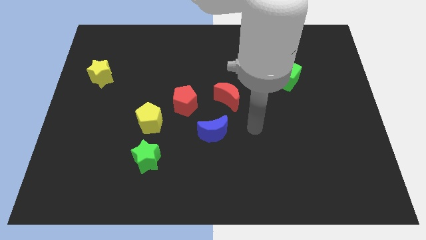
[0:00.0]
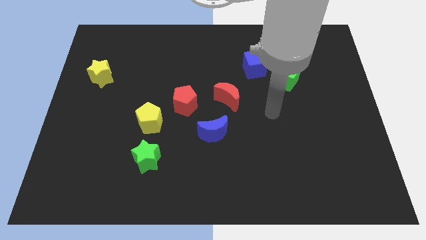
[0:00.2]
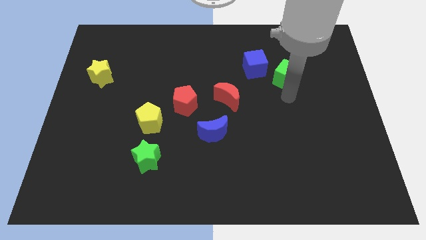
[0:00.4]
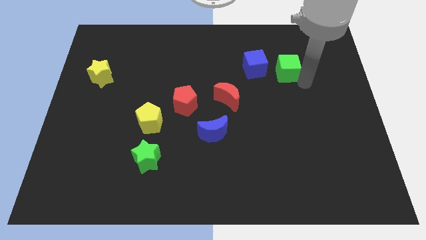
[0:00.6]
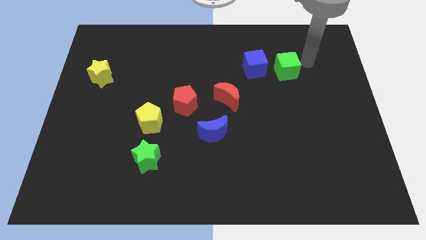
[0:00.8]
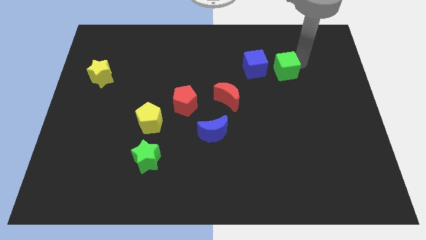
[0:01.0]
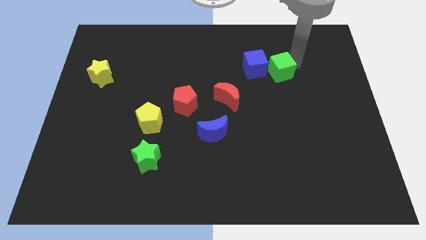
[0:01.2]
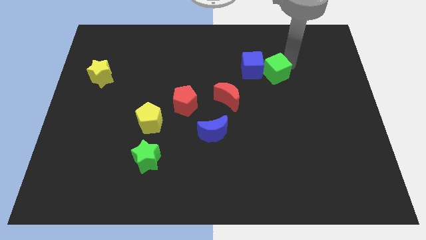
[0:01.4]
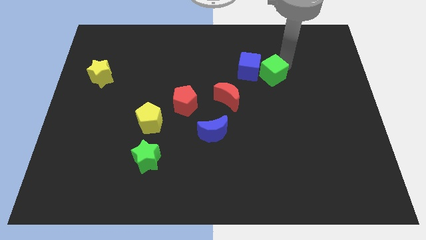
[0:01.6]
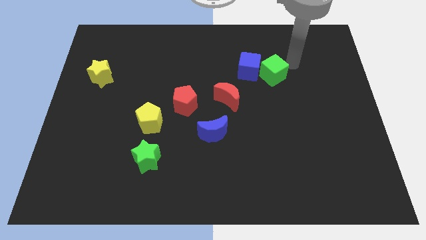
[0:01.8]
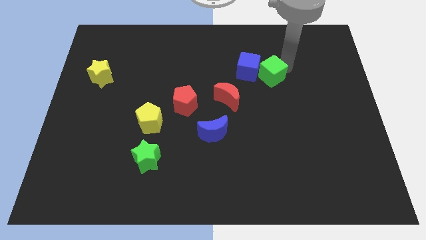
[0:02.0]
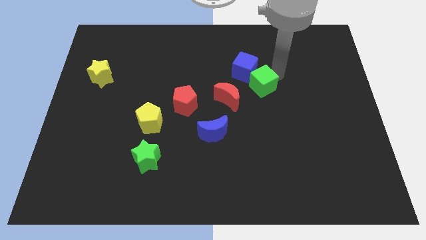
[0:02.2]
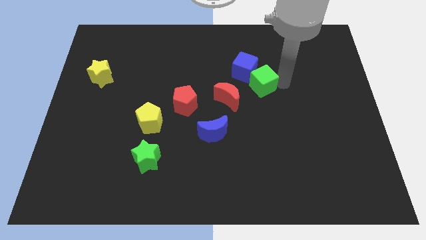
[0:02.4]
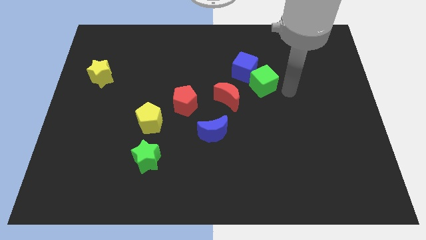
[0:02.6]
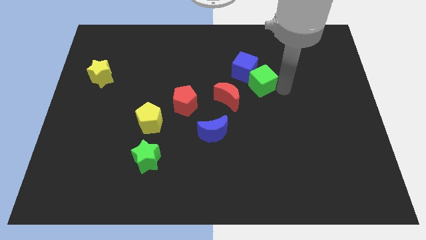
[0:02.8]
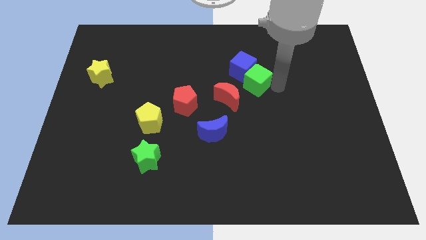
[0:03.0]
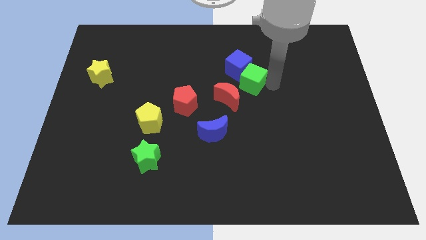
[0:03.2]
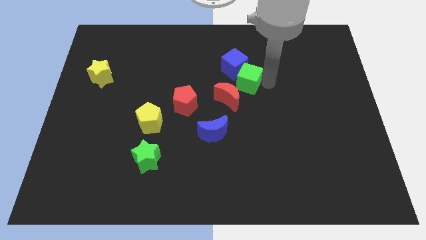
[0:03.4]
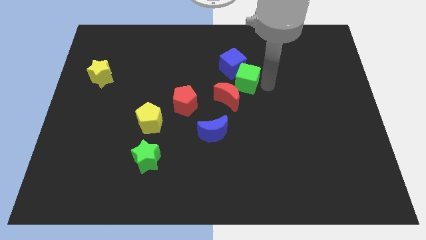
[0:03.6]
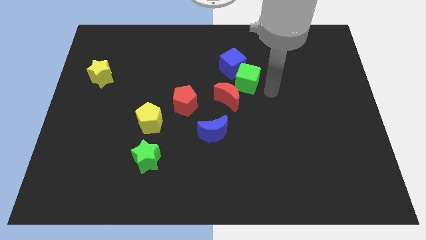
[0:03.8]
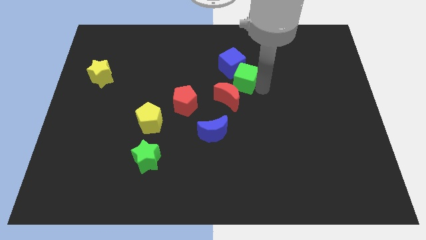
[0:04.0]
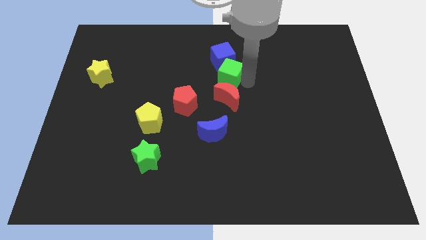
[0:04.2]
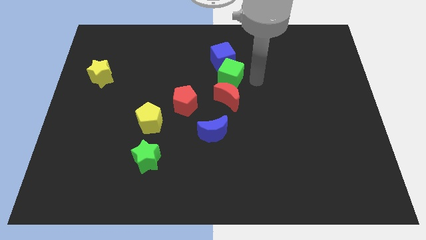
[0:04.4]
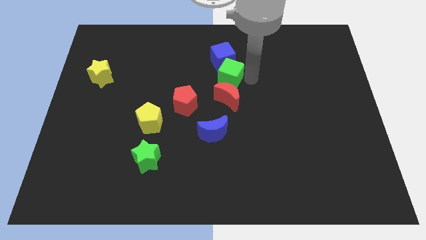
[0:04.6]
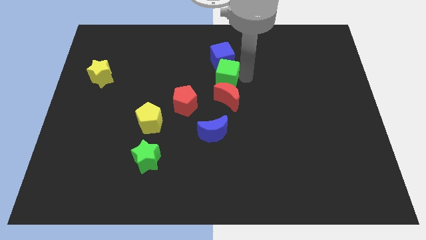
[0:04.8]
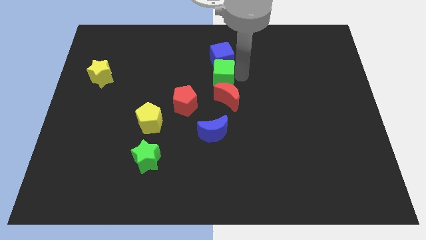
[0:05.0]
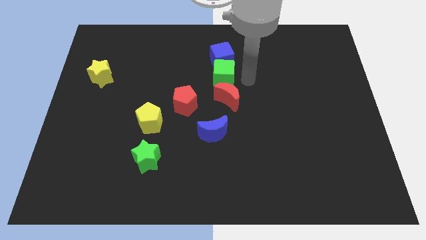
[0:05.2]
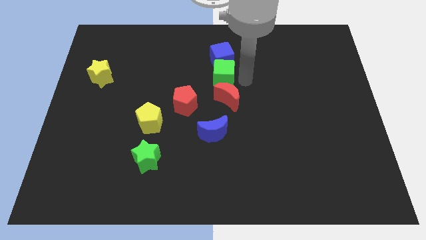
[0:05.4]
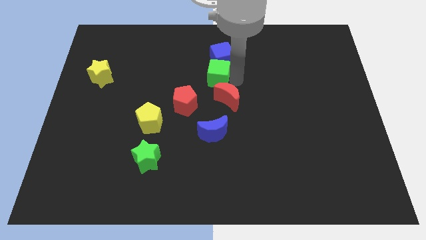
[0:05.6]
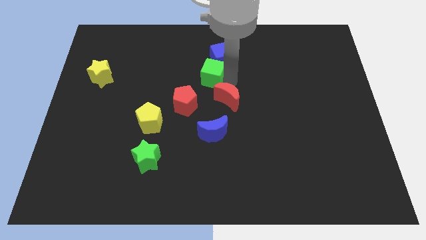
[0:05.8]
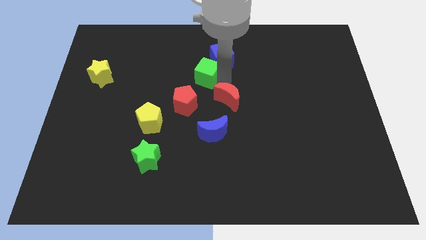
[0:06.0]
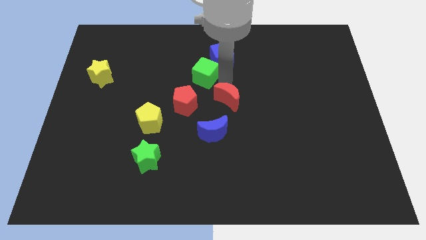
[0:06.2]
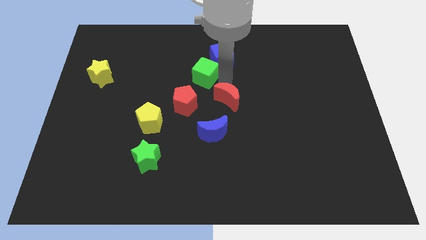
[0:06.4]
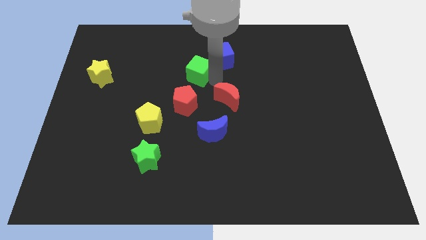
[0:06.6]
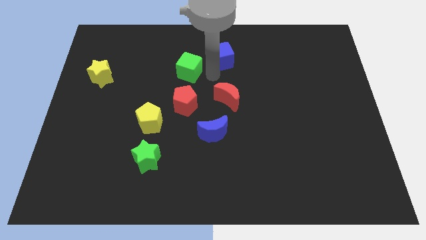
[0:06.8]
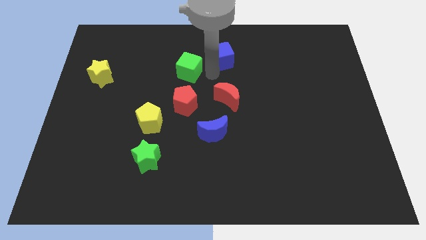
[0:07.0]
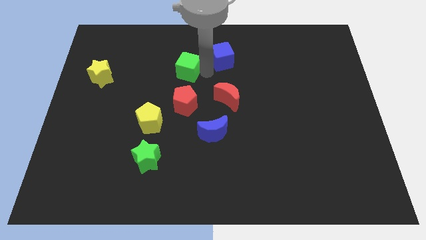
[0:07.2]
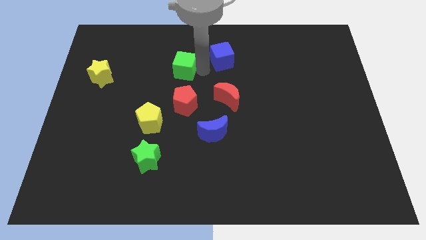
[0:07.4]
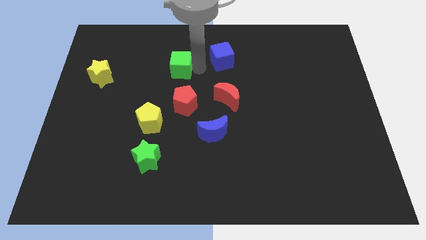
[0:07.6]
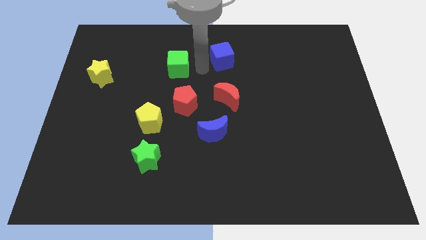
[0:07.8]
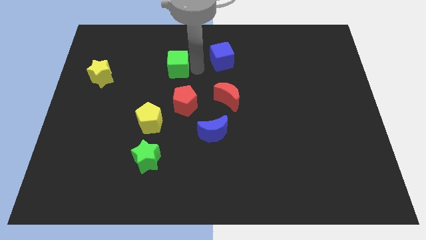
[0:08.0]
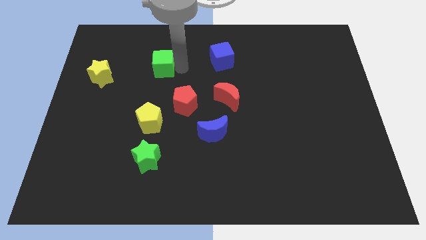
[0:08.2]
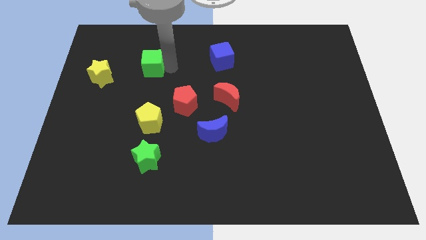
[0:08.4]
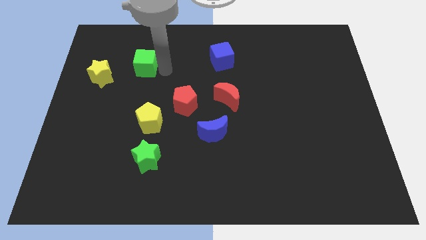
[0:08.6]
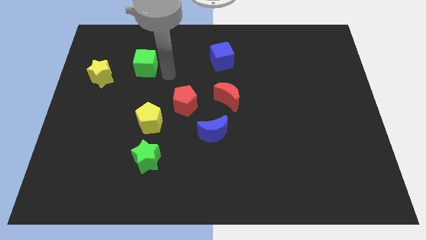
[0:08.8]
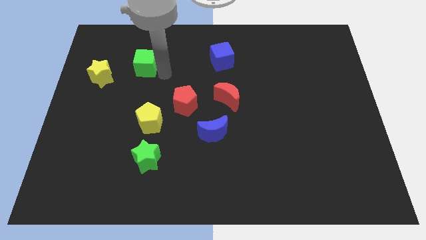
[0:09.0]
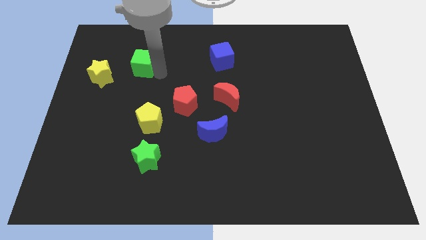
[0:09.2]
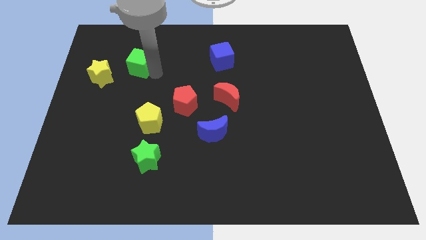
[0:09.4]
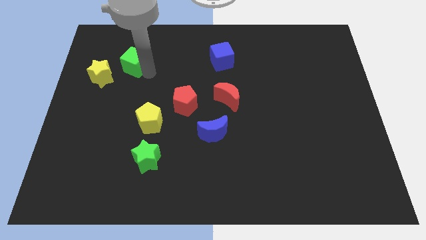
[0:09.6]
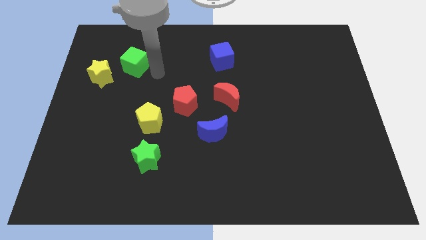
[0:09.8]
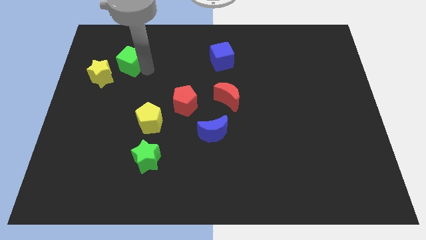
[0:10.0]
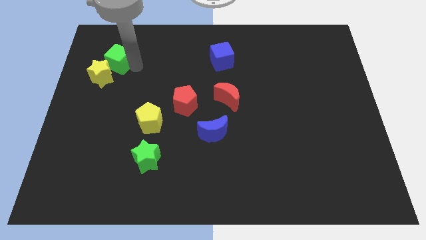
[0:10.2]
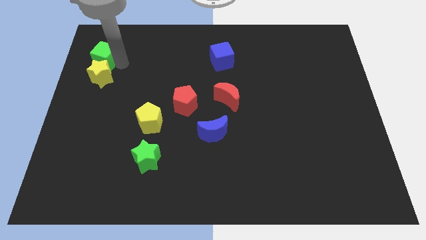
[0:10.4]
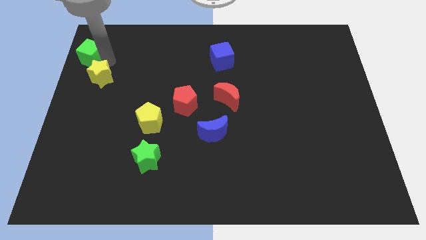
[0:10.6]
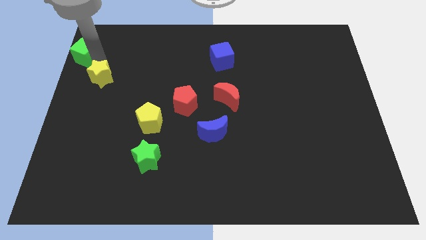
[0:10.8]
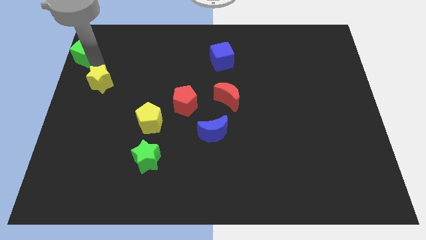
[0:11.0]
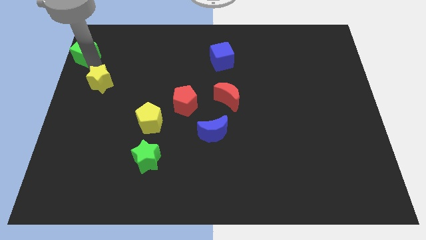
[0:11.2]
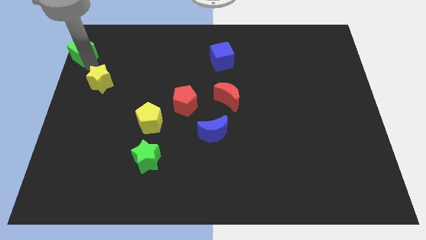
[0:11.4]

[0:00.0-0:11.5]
push the green cube to the upper left corner

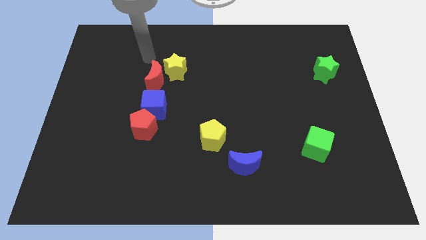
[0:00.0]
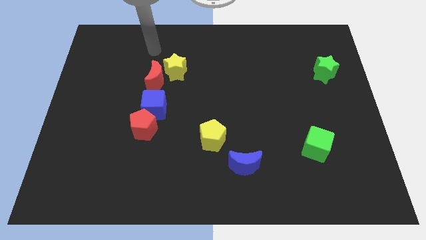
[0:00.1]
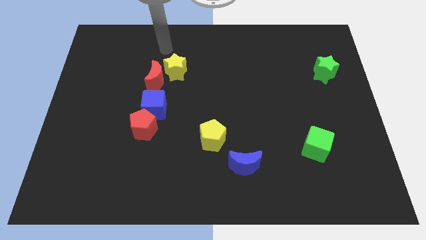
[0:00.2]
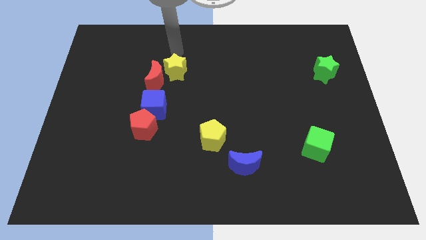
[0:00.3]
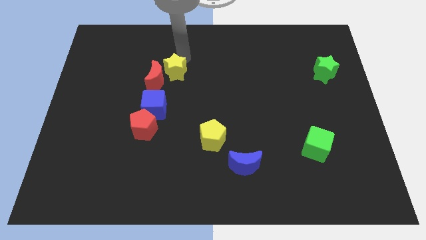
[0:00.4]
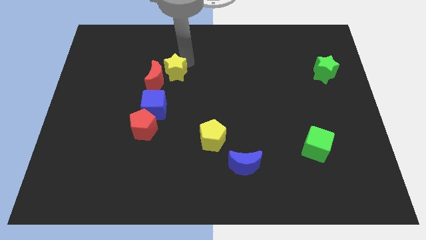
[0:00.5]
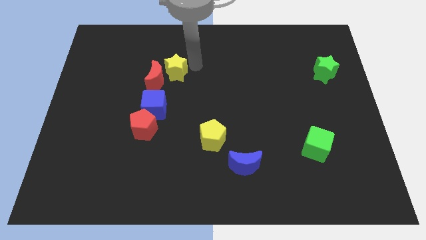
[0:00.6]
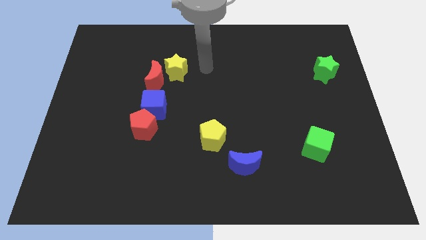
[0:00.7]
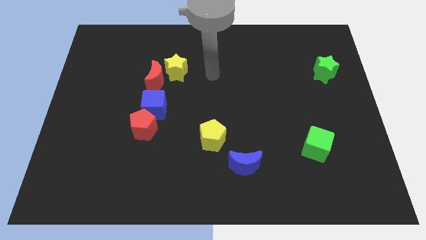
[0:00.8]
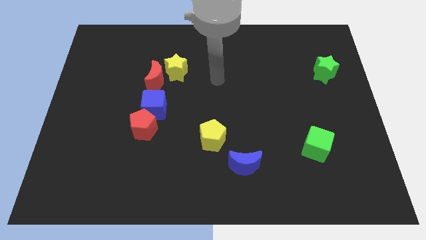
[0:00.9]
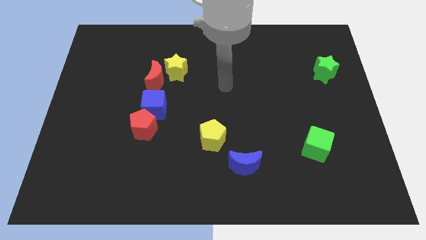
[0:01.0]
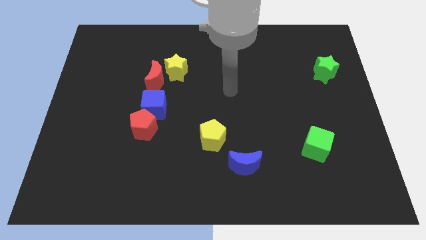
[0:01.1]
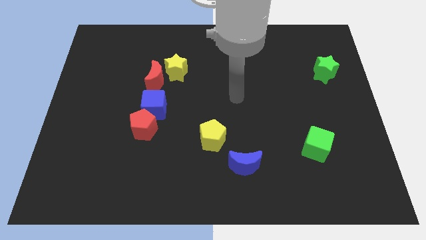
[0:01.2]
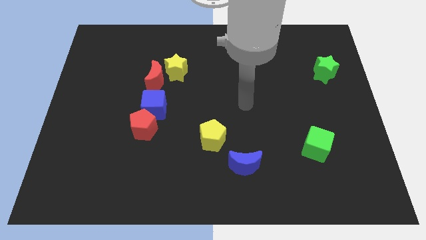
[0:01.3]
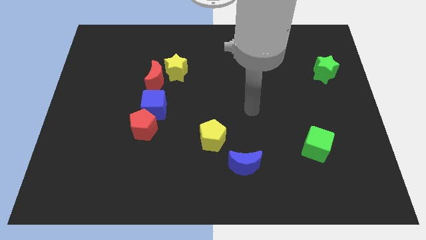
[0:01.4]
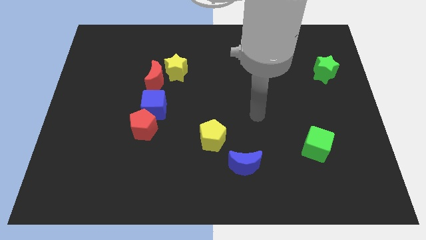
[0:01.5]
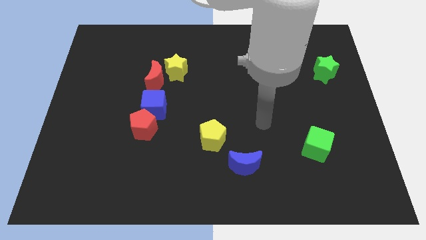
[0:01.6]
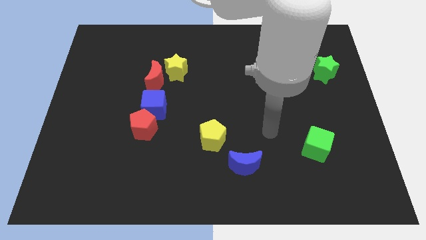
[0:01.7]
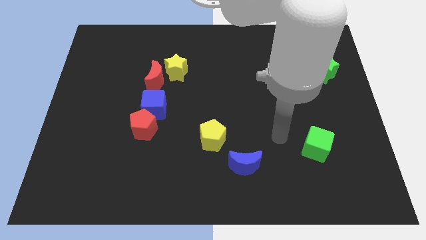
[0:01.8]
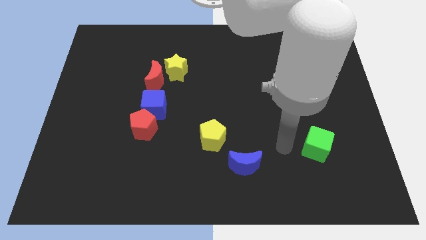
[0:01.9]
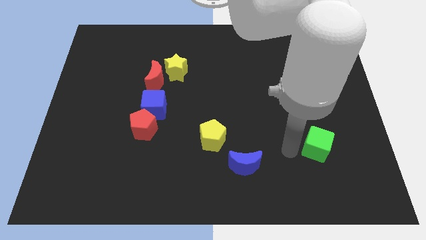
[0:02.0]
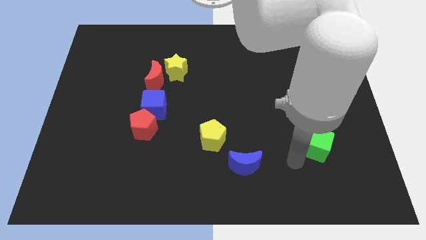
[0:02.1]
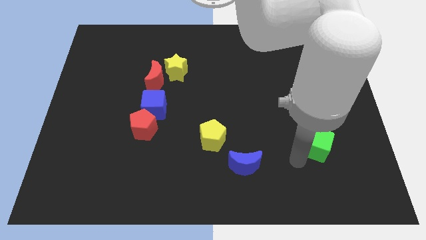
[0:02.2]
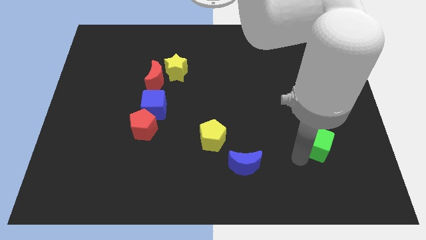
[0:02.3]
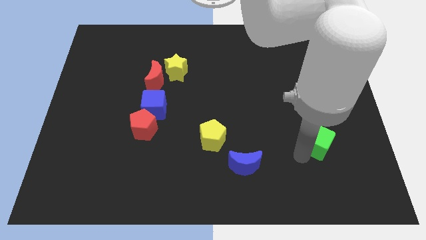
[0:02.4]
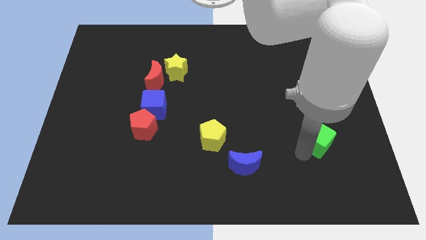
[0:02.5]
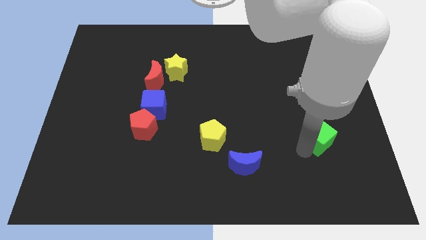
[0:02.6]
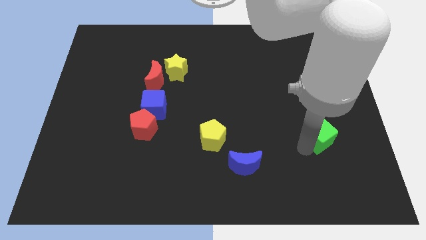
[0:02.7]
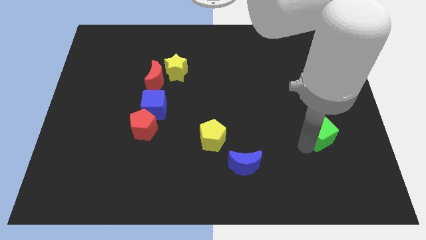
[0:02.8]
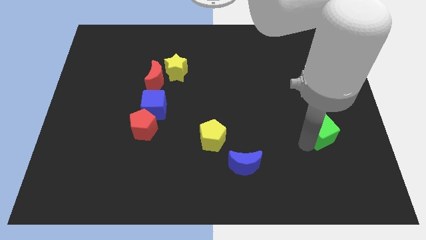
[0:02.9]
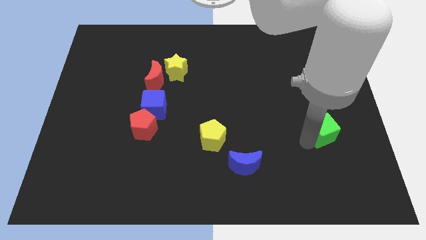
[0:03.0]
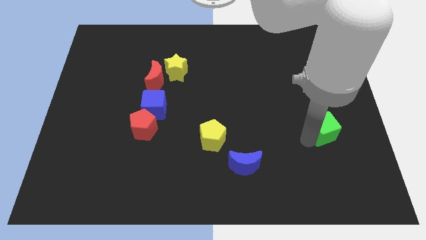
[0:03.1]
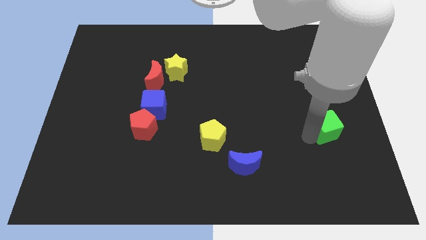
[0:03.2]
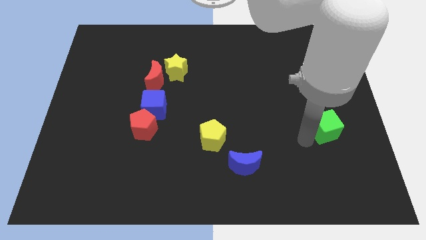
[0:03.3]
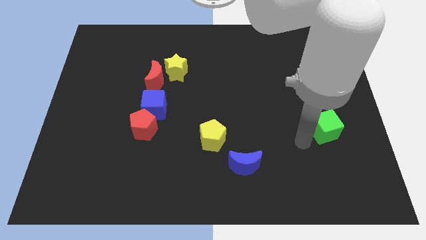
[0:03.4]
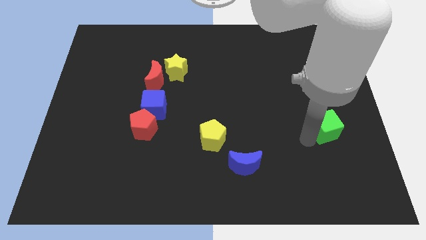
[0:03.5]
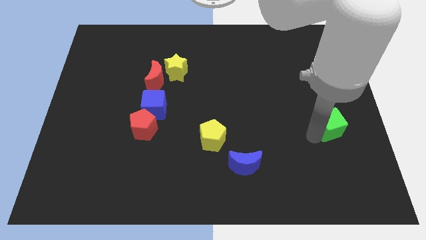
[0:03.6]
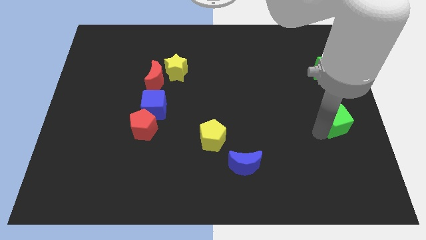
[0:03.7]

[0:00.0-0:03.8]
push the green cube to the right side of the board
